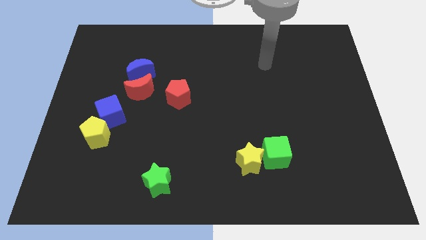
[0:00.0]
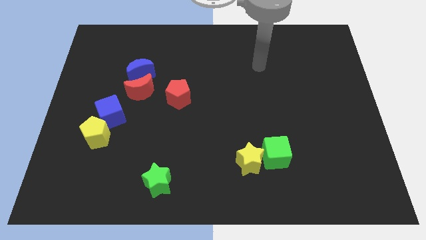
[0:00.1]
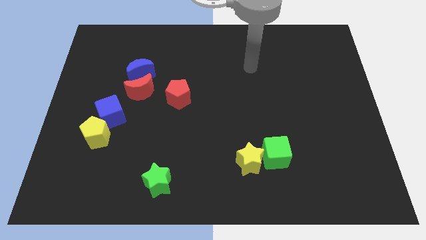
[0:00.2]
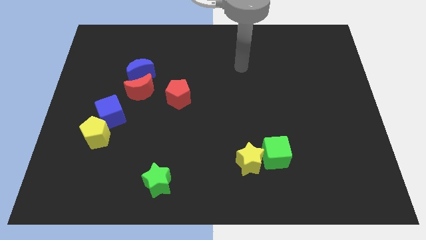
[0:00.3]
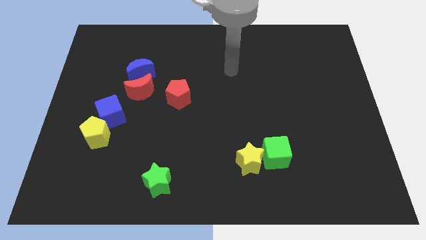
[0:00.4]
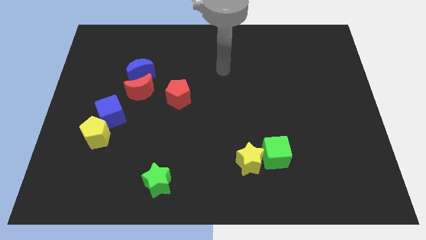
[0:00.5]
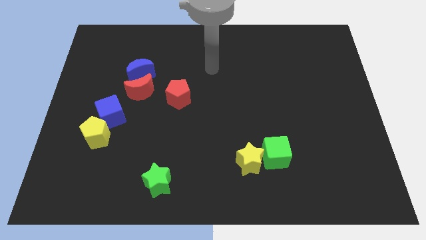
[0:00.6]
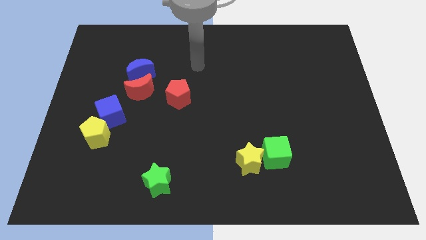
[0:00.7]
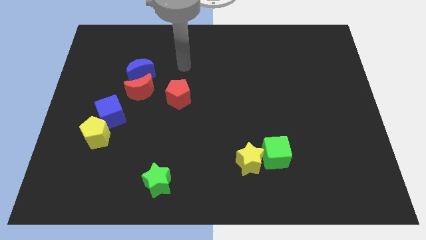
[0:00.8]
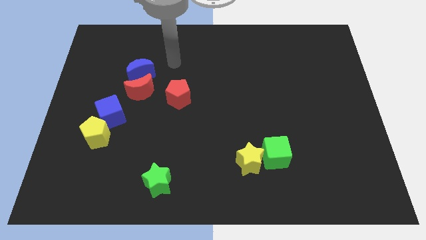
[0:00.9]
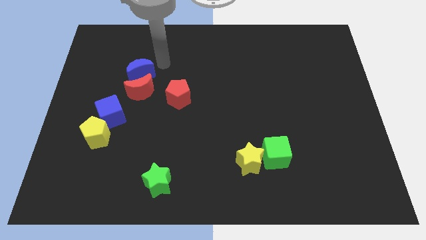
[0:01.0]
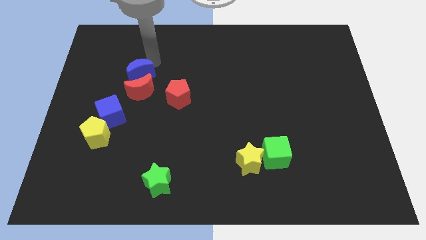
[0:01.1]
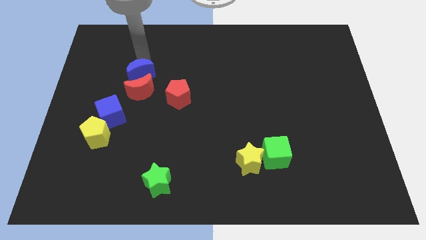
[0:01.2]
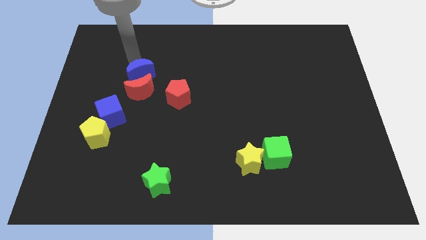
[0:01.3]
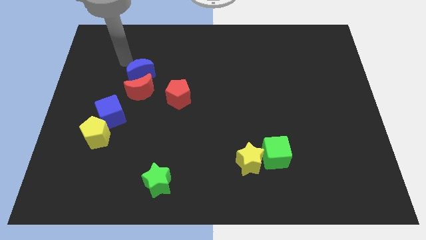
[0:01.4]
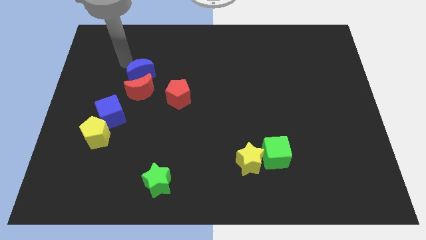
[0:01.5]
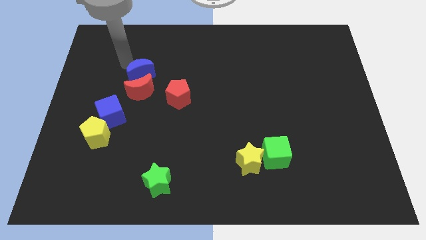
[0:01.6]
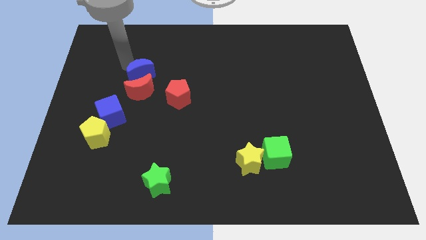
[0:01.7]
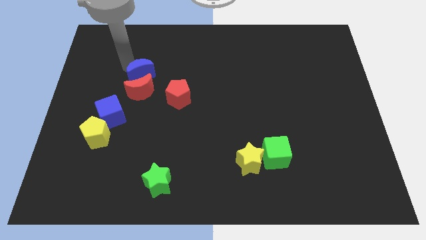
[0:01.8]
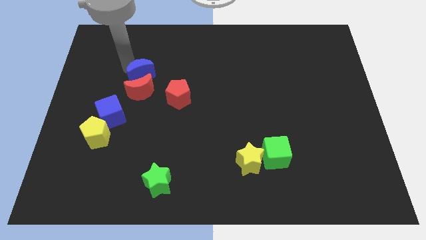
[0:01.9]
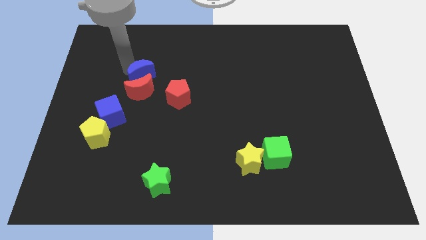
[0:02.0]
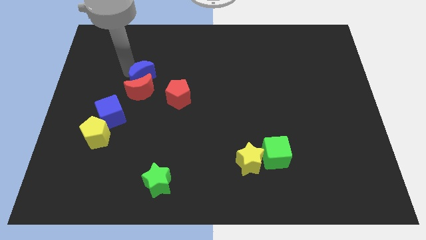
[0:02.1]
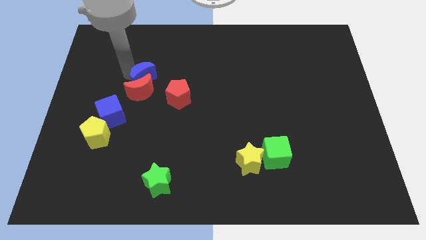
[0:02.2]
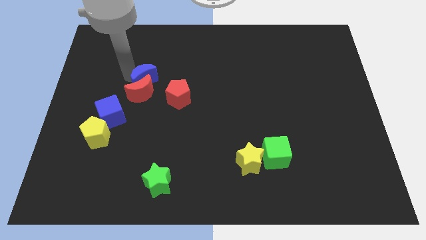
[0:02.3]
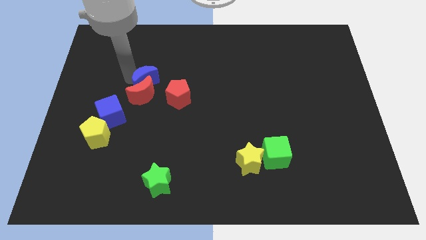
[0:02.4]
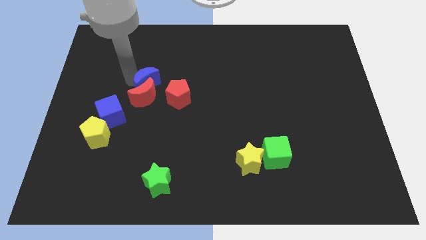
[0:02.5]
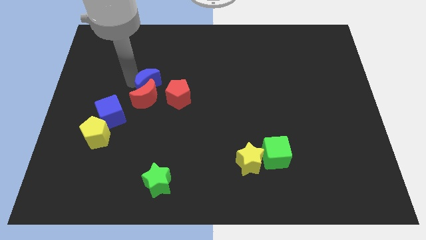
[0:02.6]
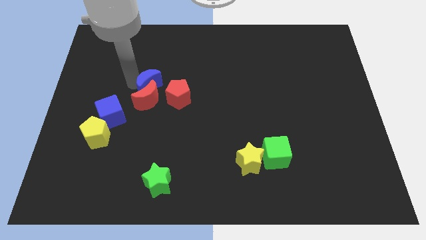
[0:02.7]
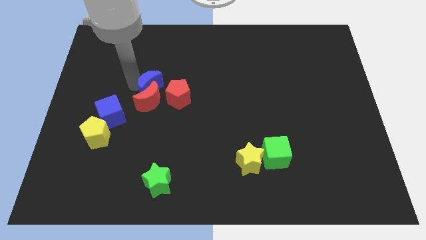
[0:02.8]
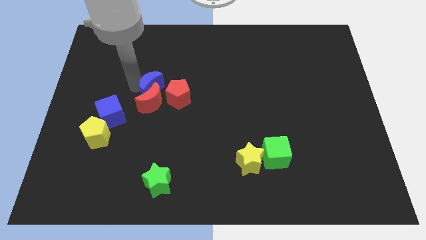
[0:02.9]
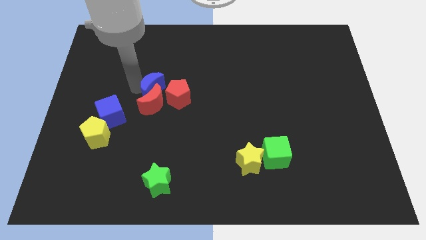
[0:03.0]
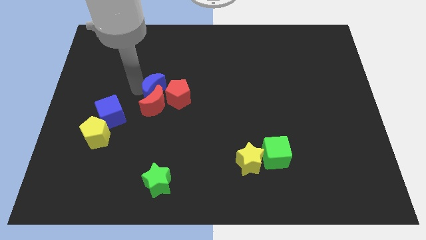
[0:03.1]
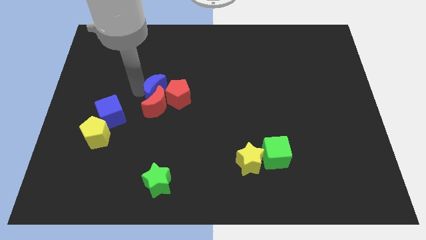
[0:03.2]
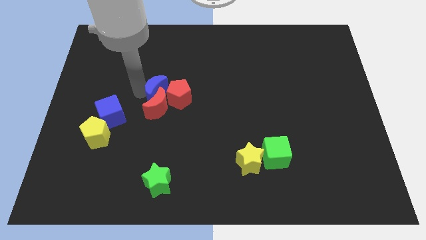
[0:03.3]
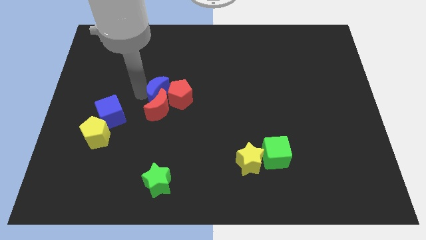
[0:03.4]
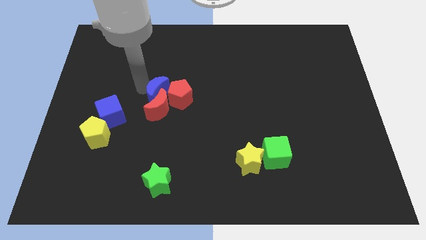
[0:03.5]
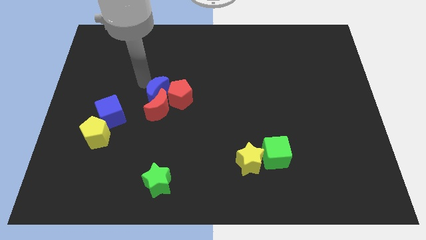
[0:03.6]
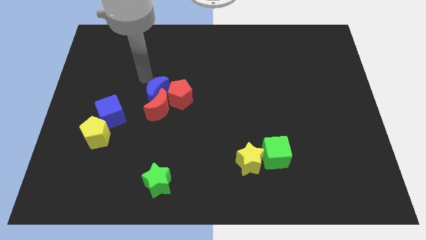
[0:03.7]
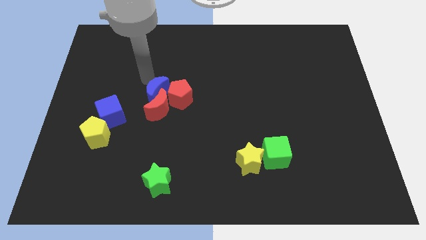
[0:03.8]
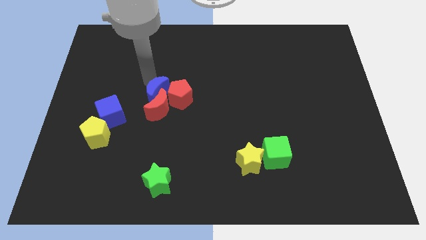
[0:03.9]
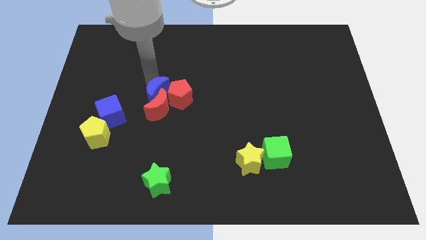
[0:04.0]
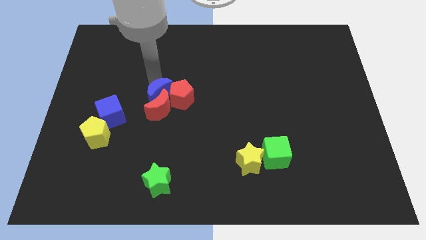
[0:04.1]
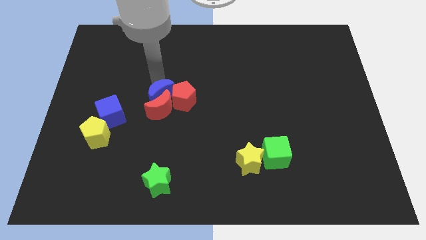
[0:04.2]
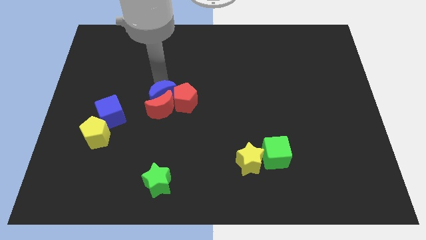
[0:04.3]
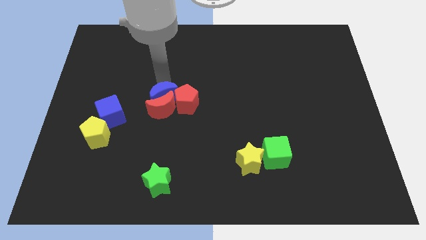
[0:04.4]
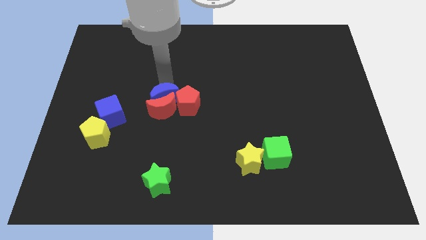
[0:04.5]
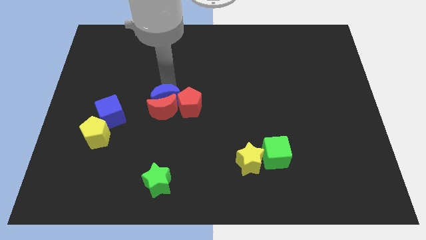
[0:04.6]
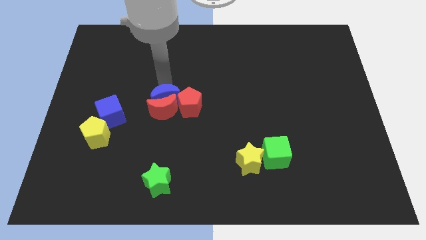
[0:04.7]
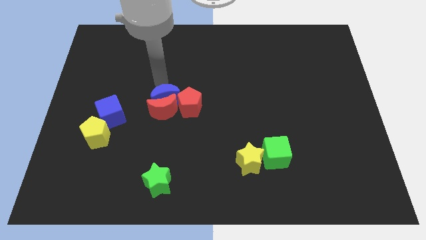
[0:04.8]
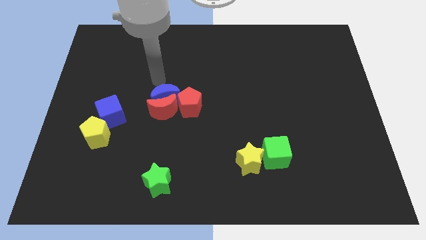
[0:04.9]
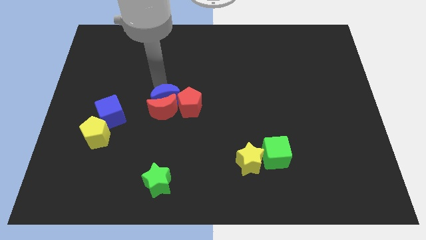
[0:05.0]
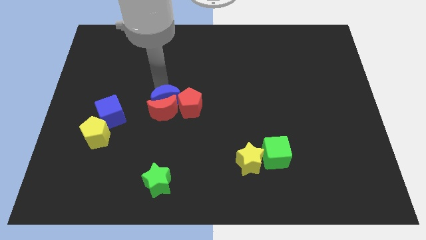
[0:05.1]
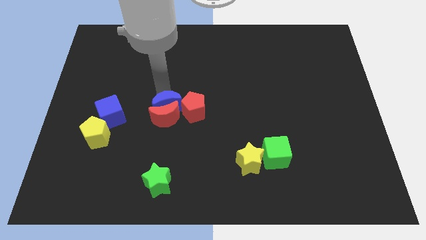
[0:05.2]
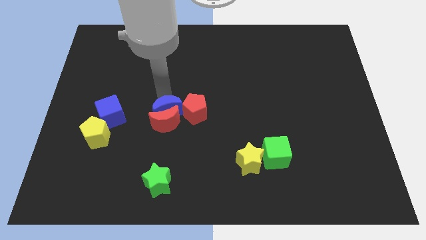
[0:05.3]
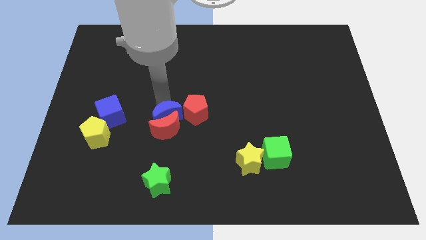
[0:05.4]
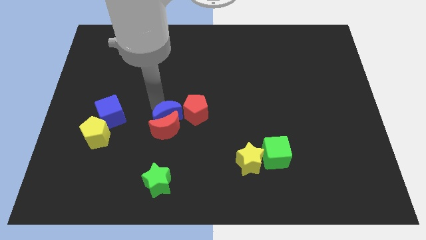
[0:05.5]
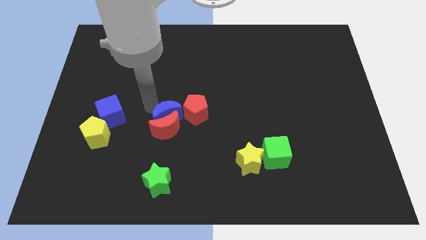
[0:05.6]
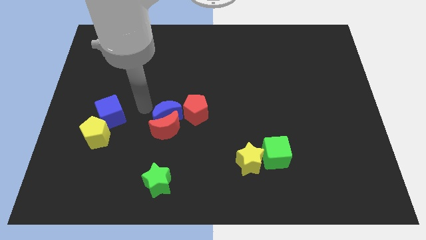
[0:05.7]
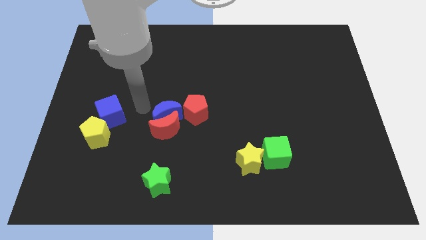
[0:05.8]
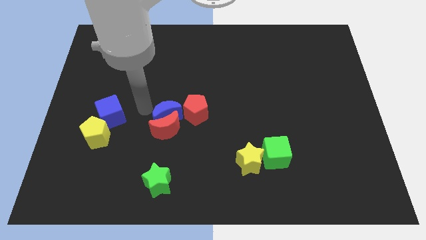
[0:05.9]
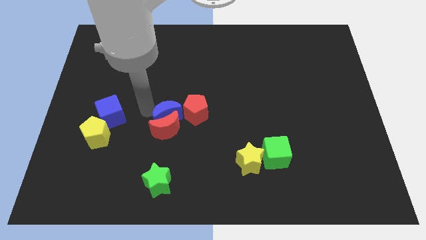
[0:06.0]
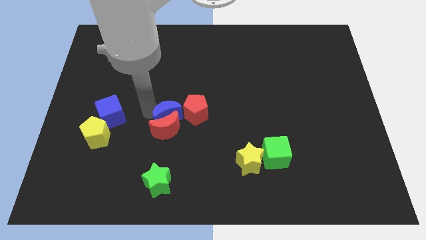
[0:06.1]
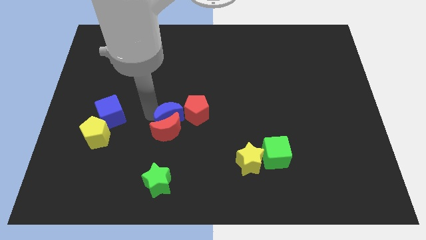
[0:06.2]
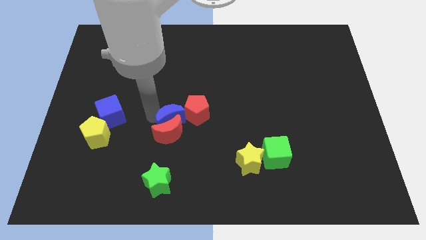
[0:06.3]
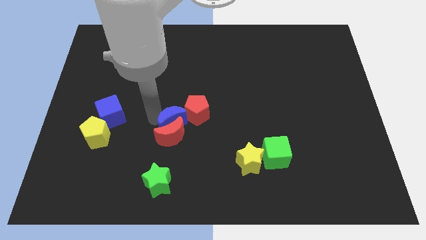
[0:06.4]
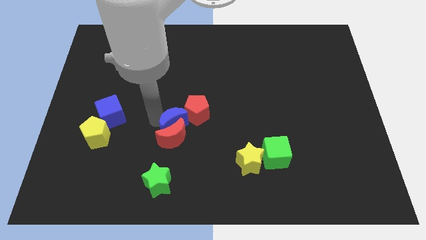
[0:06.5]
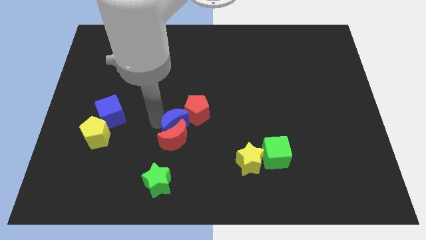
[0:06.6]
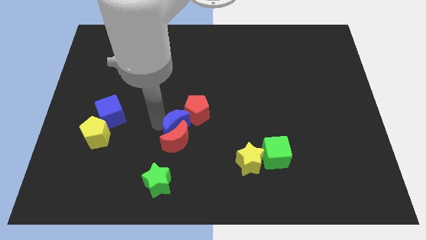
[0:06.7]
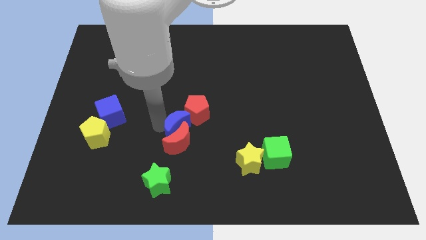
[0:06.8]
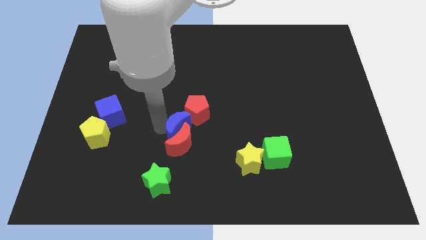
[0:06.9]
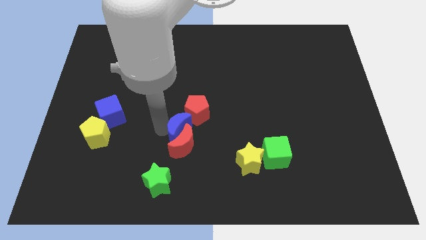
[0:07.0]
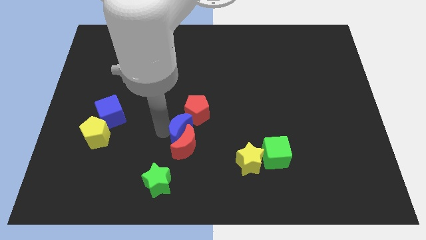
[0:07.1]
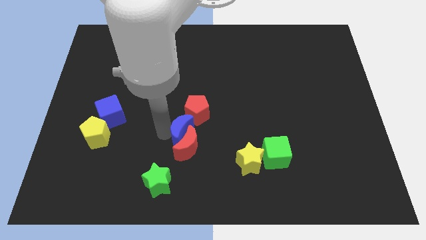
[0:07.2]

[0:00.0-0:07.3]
push the blue moon down and then to the right

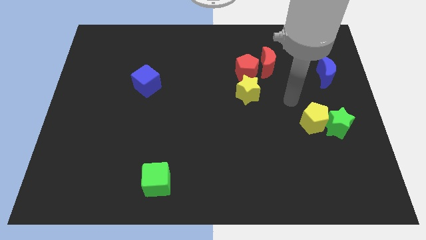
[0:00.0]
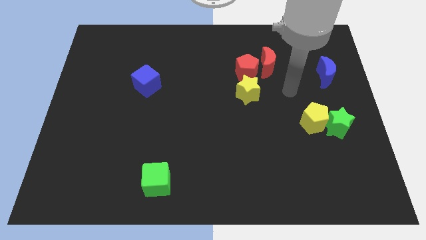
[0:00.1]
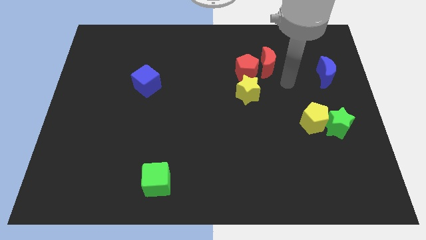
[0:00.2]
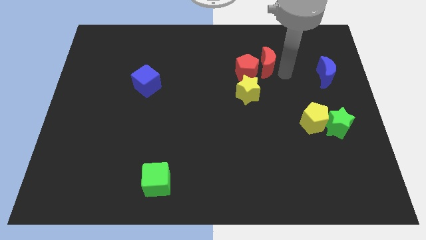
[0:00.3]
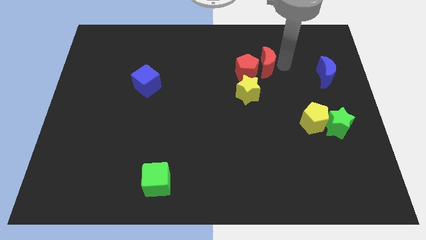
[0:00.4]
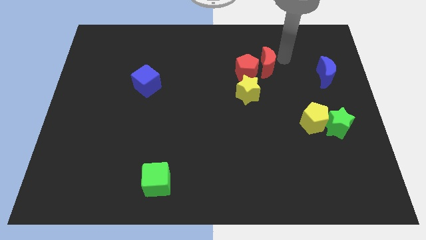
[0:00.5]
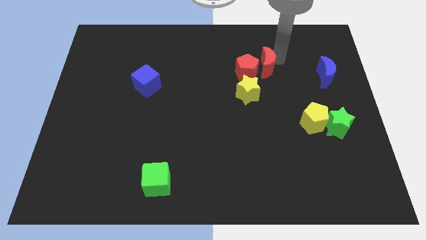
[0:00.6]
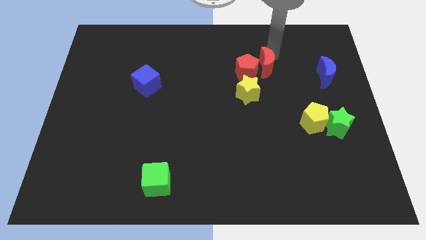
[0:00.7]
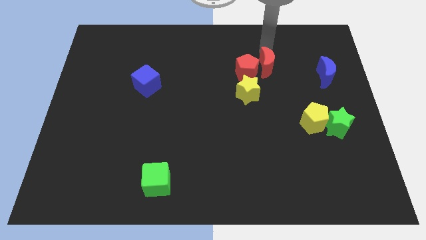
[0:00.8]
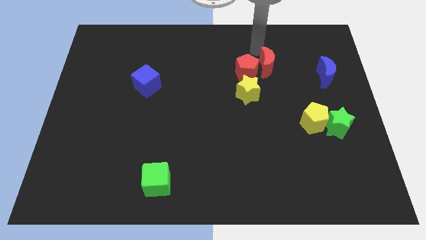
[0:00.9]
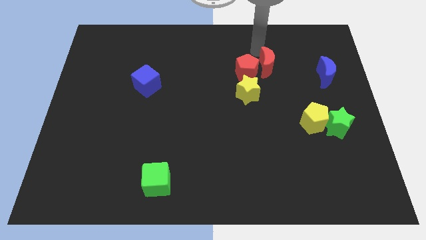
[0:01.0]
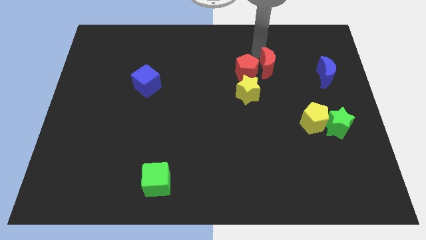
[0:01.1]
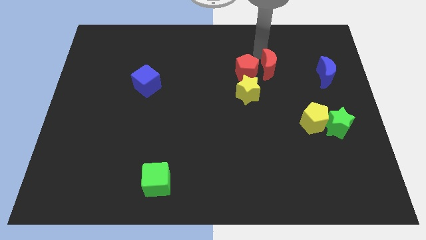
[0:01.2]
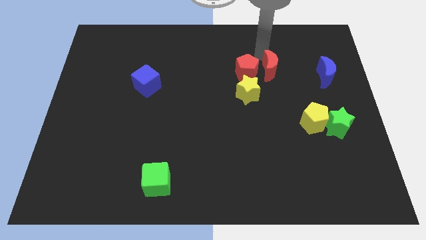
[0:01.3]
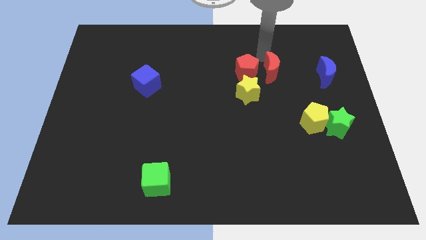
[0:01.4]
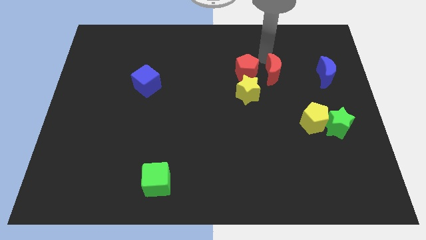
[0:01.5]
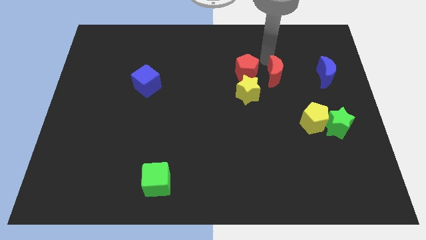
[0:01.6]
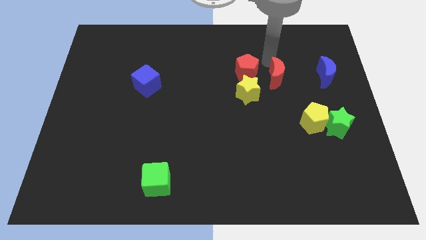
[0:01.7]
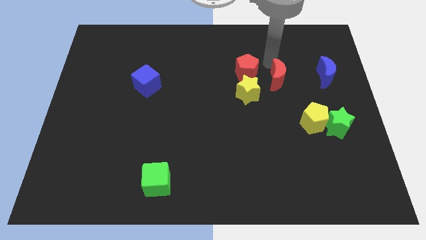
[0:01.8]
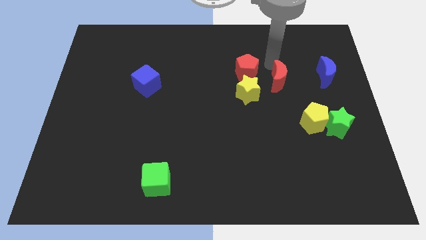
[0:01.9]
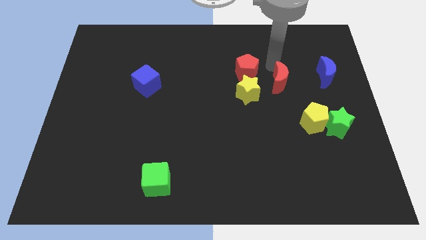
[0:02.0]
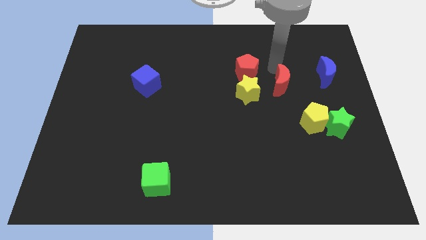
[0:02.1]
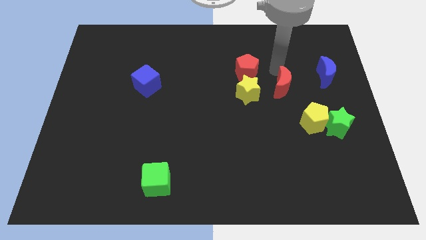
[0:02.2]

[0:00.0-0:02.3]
slightly push the red moon downwards
